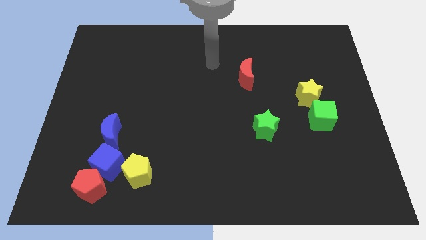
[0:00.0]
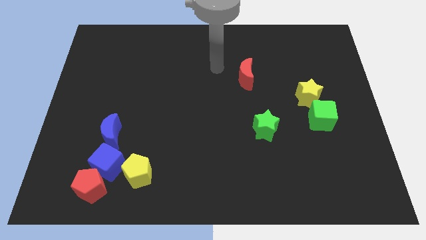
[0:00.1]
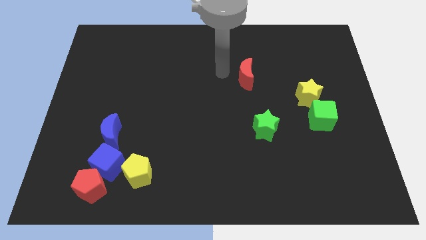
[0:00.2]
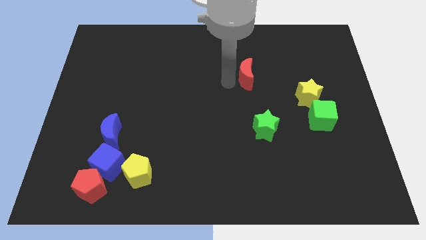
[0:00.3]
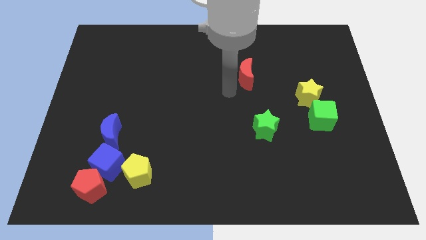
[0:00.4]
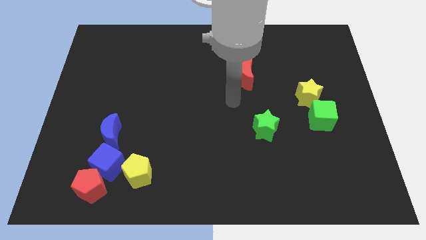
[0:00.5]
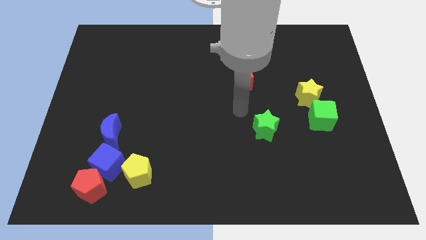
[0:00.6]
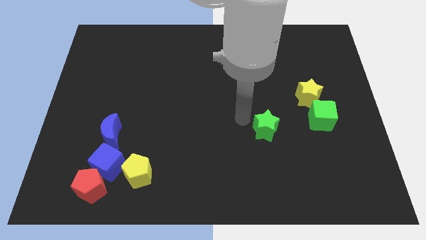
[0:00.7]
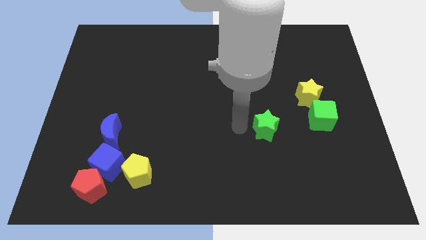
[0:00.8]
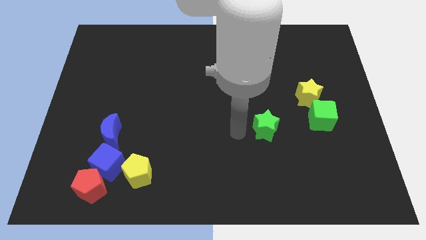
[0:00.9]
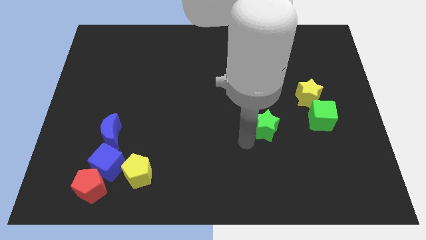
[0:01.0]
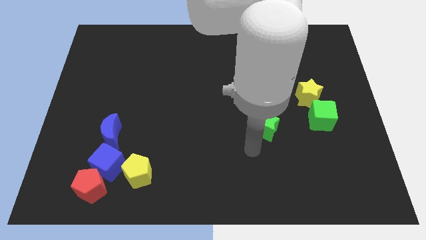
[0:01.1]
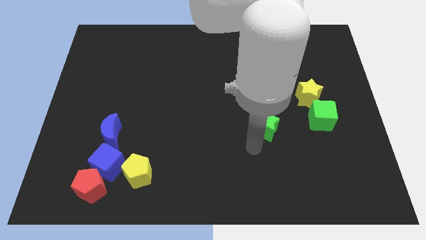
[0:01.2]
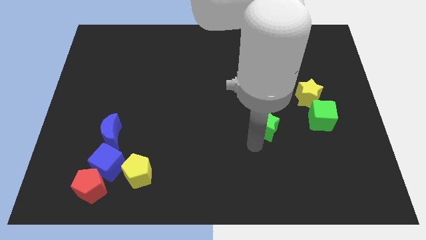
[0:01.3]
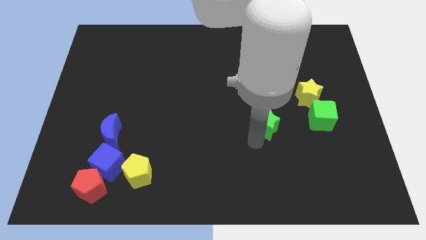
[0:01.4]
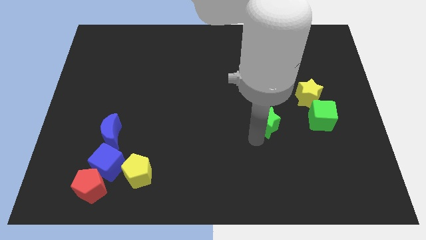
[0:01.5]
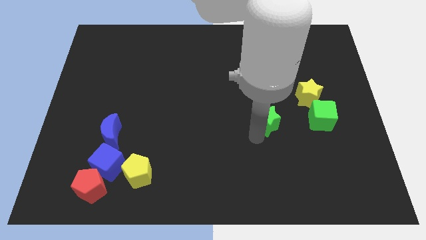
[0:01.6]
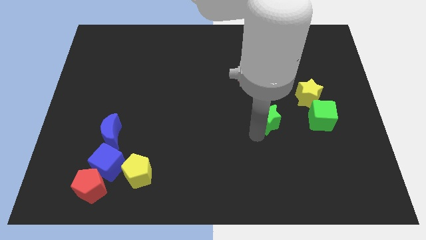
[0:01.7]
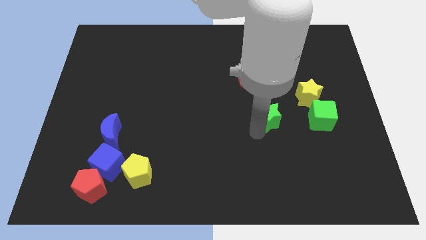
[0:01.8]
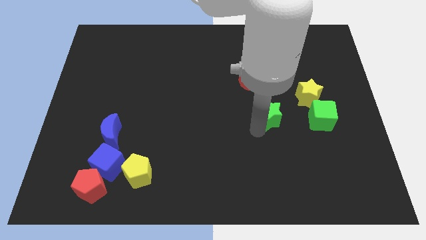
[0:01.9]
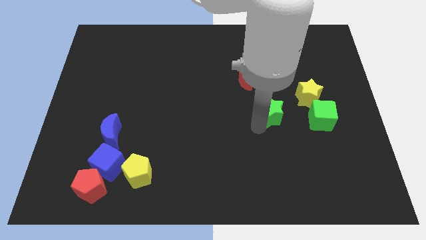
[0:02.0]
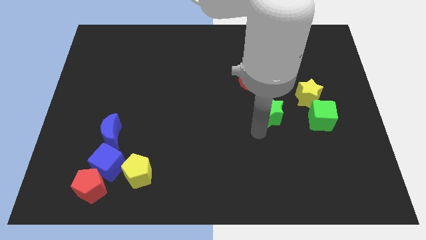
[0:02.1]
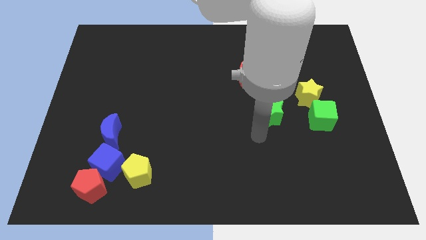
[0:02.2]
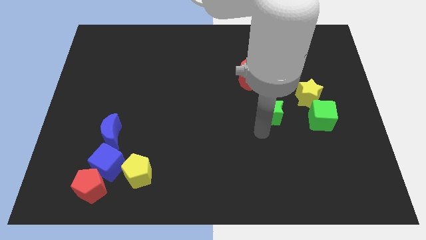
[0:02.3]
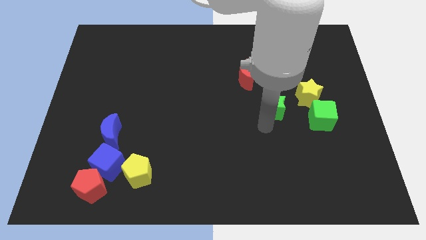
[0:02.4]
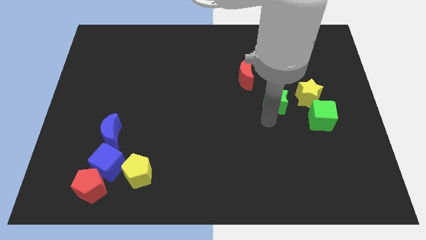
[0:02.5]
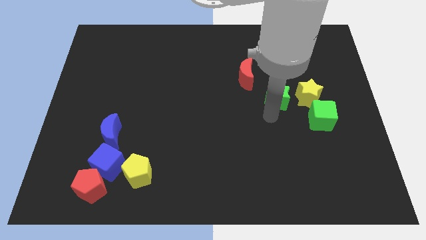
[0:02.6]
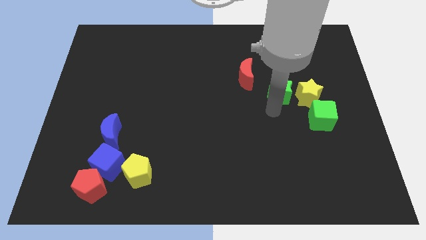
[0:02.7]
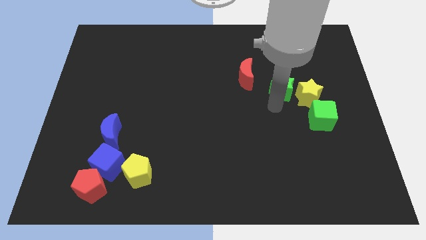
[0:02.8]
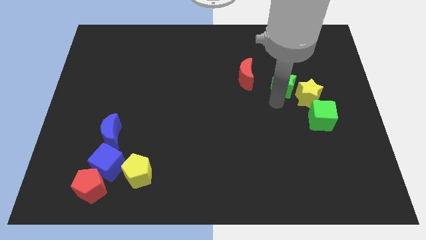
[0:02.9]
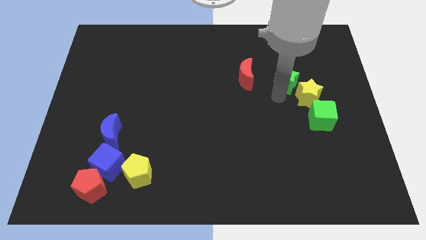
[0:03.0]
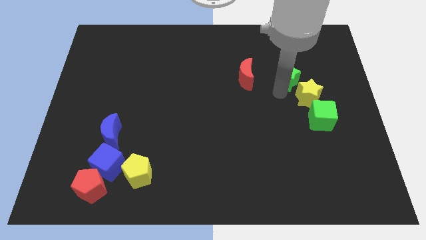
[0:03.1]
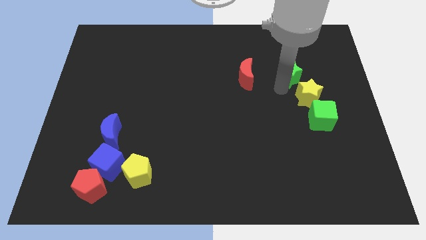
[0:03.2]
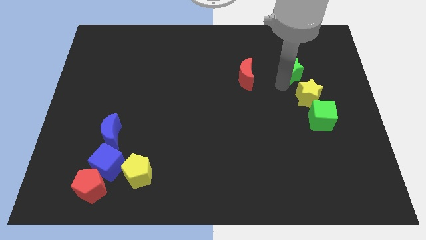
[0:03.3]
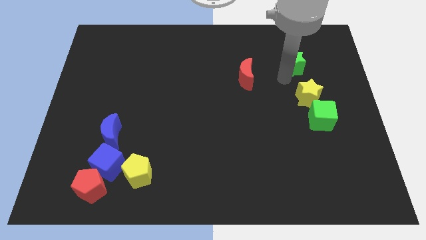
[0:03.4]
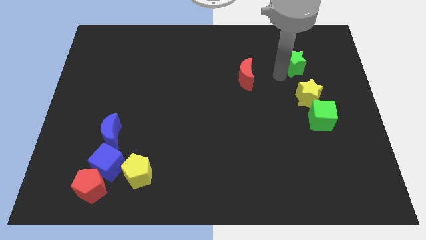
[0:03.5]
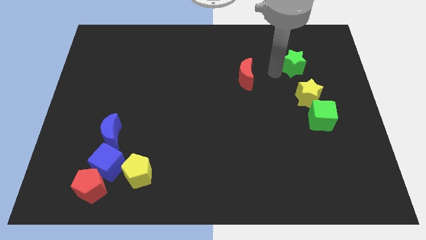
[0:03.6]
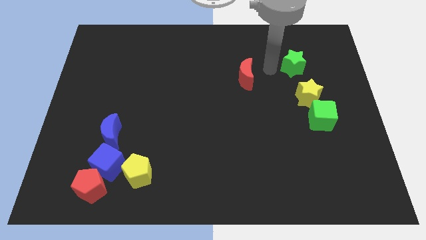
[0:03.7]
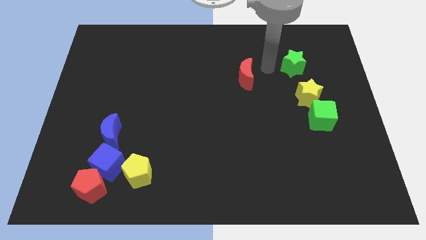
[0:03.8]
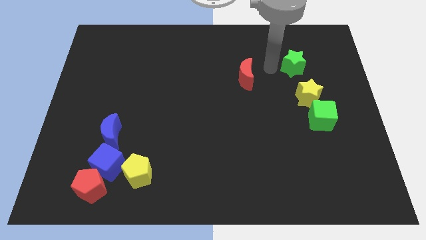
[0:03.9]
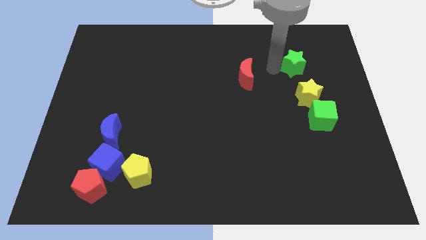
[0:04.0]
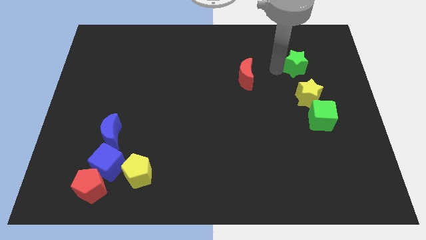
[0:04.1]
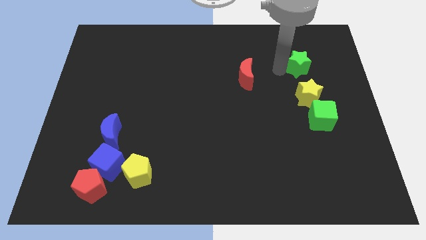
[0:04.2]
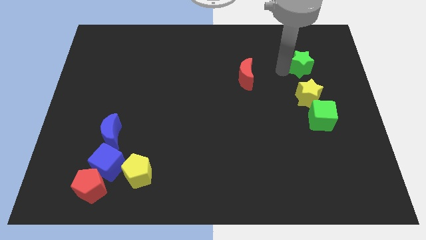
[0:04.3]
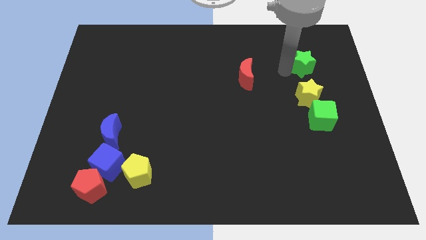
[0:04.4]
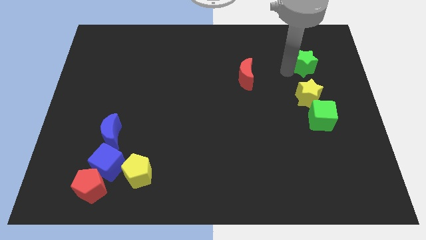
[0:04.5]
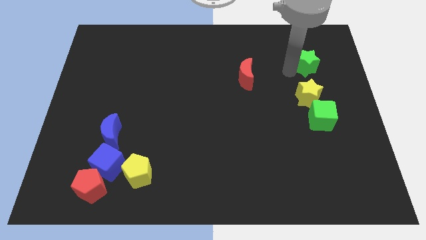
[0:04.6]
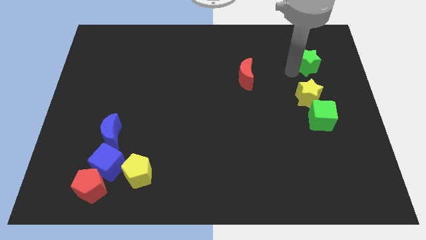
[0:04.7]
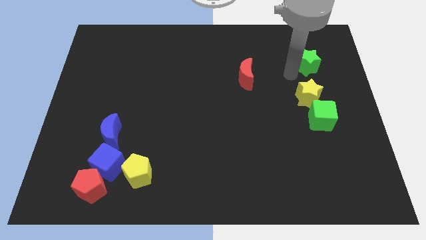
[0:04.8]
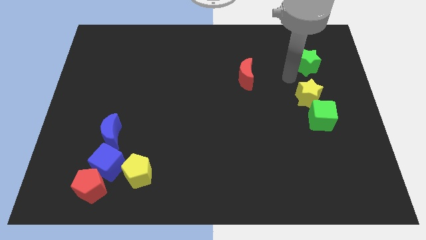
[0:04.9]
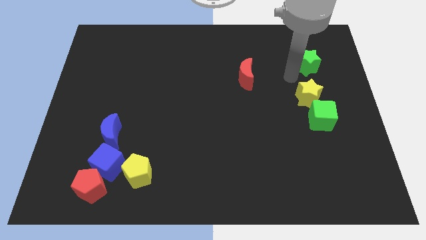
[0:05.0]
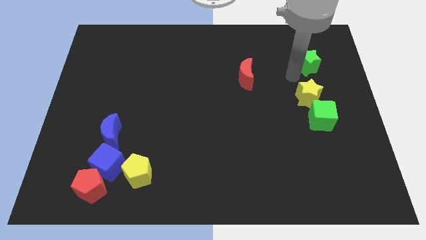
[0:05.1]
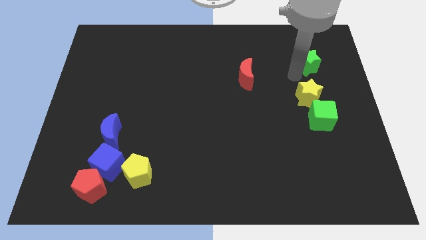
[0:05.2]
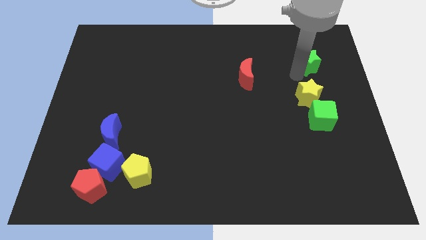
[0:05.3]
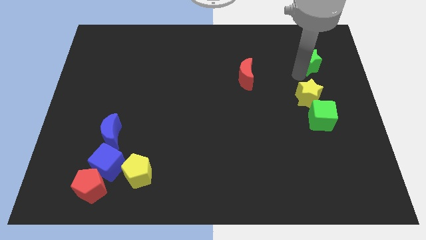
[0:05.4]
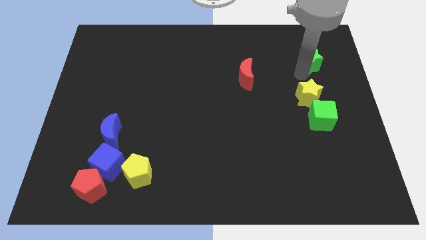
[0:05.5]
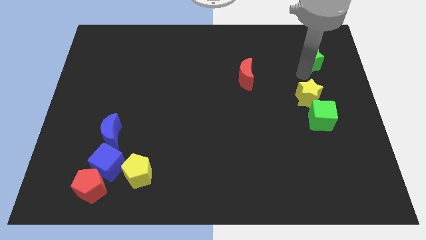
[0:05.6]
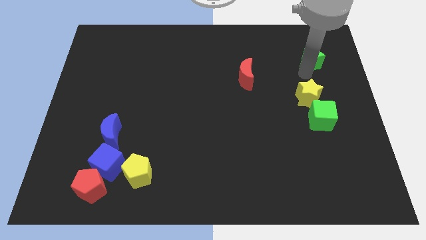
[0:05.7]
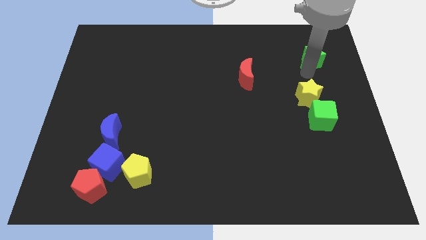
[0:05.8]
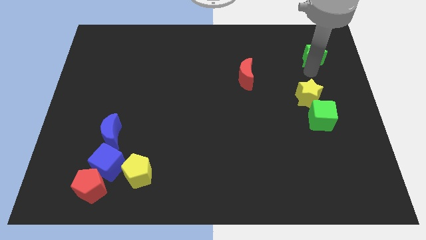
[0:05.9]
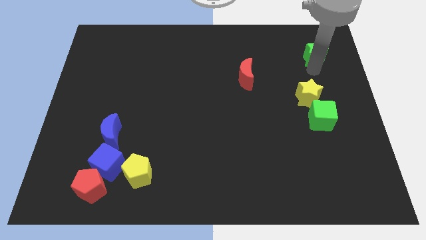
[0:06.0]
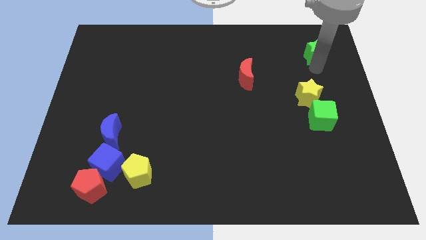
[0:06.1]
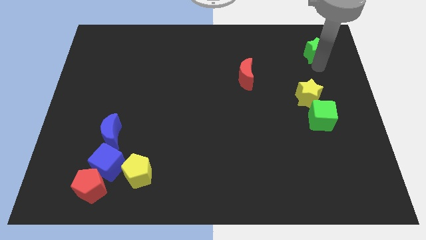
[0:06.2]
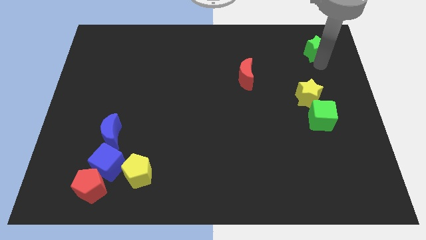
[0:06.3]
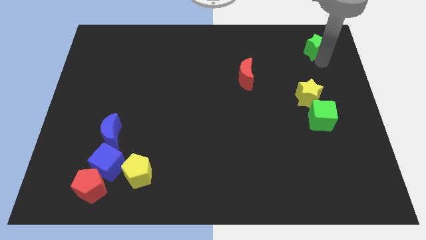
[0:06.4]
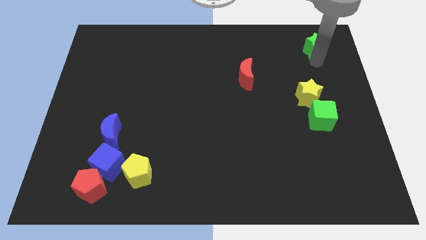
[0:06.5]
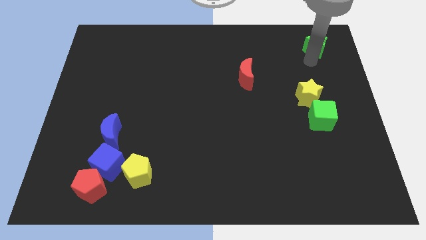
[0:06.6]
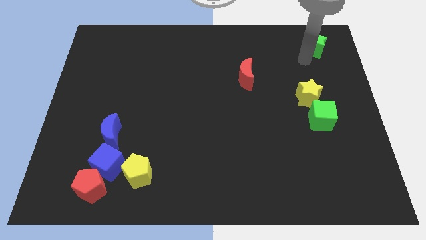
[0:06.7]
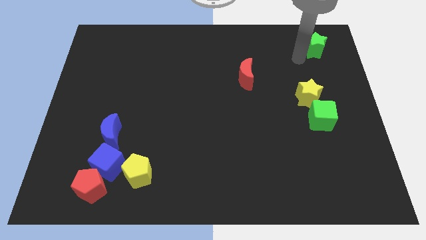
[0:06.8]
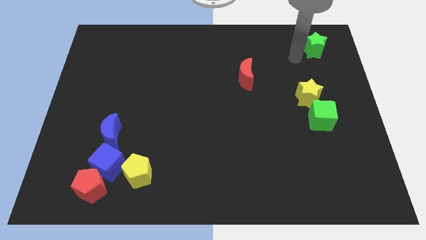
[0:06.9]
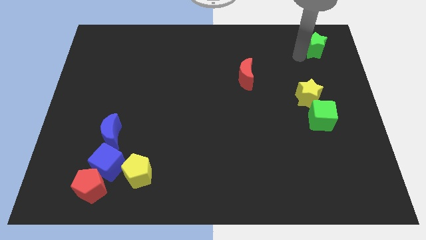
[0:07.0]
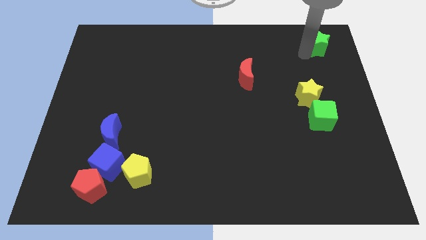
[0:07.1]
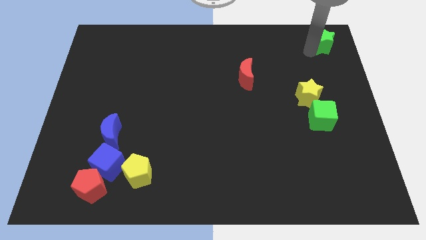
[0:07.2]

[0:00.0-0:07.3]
push the green star to the top right corner
